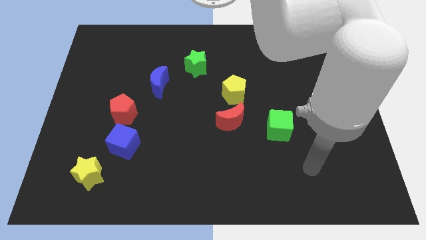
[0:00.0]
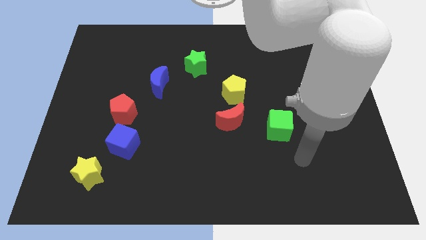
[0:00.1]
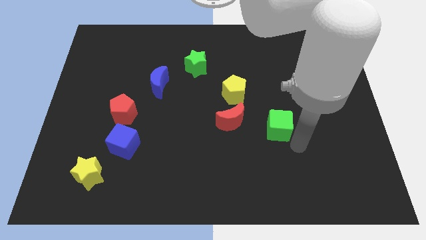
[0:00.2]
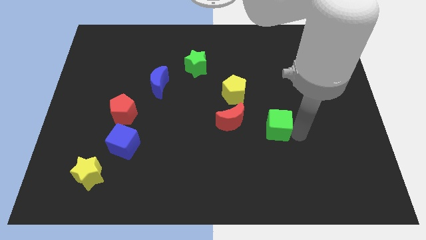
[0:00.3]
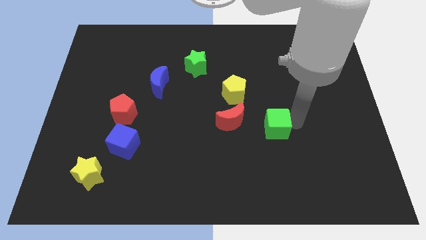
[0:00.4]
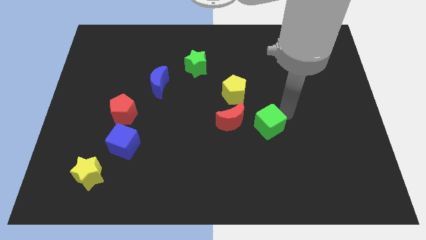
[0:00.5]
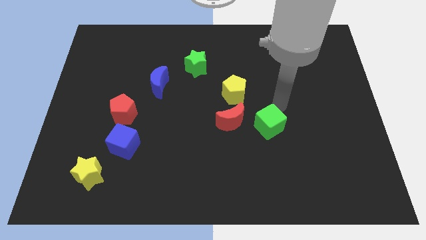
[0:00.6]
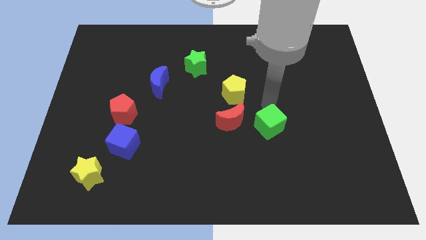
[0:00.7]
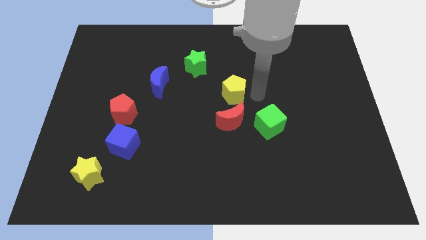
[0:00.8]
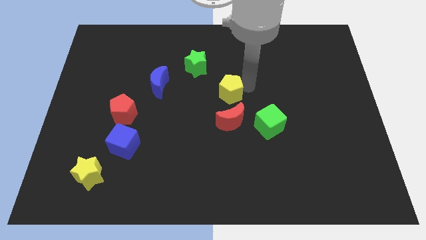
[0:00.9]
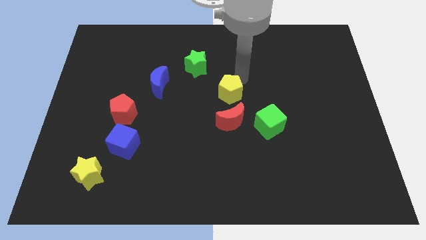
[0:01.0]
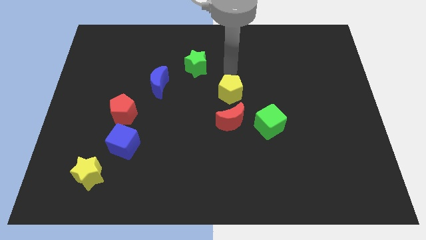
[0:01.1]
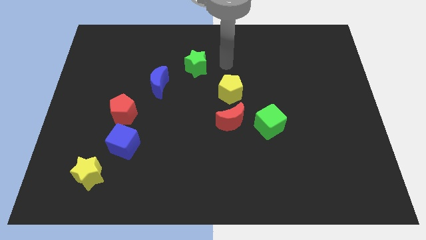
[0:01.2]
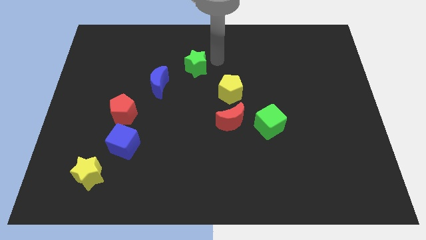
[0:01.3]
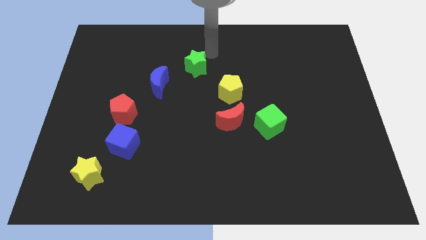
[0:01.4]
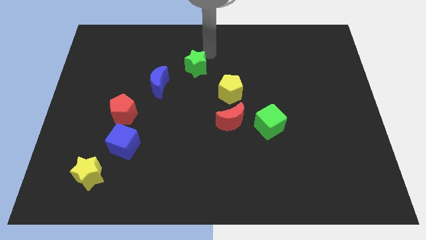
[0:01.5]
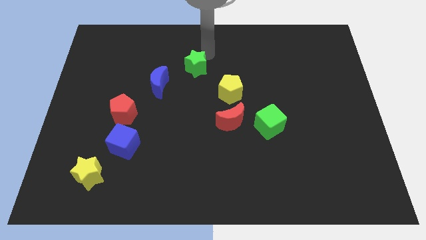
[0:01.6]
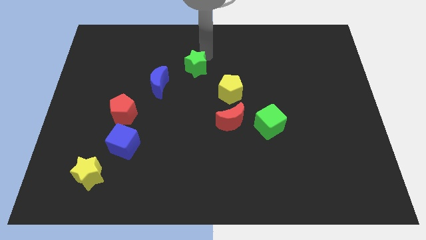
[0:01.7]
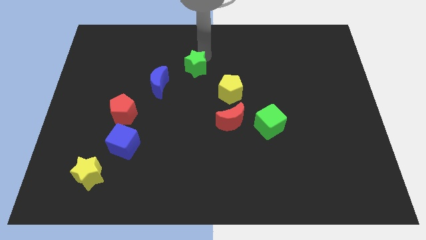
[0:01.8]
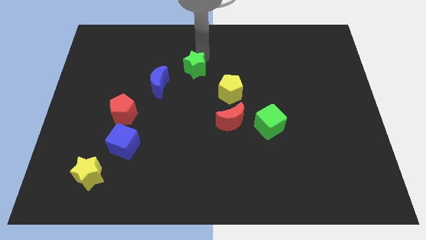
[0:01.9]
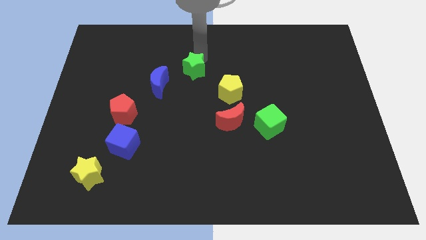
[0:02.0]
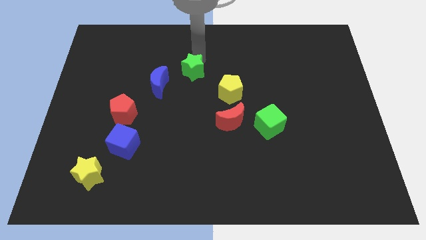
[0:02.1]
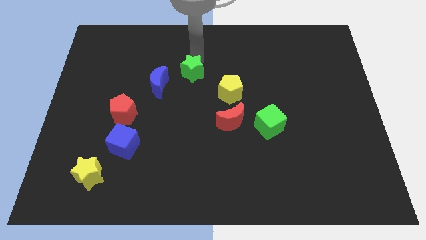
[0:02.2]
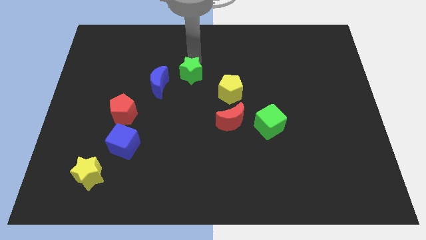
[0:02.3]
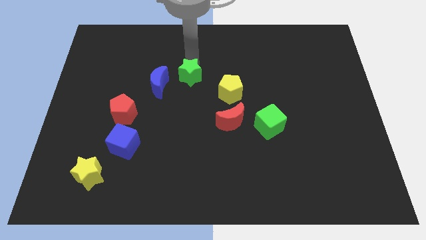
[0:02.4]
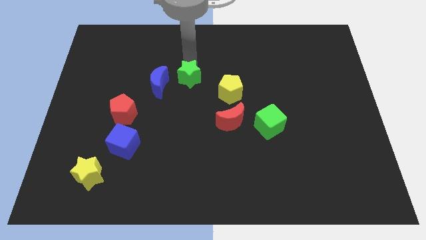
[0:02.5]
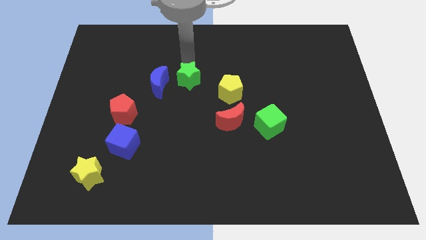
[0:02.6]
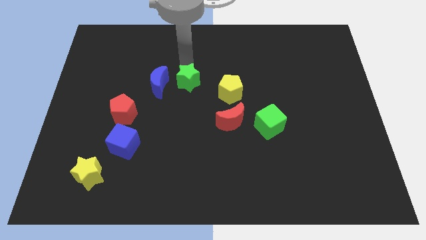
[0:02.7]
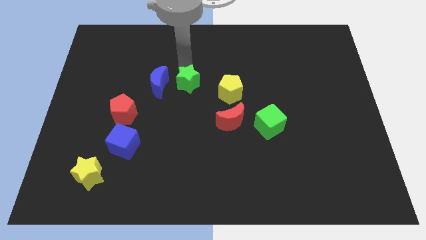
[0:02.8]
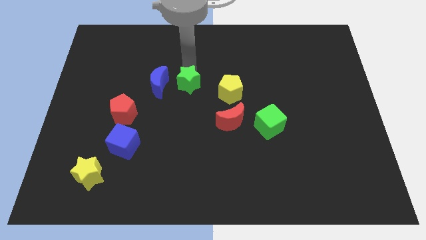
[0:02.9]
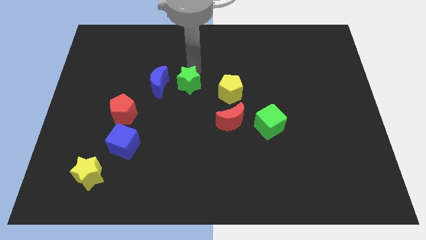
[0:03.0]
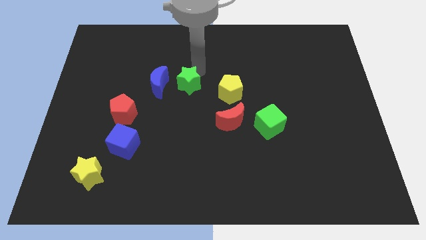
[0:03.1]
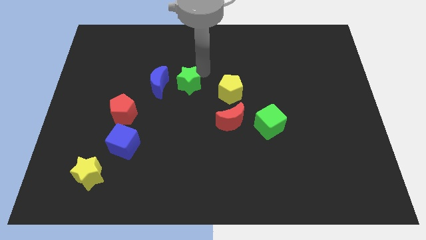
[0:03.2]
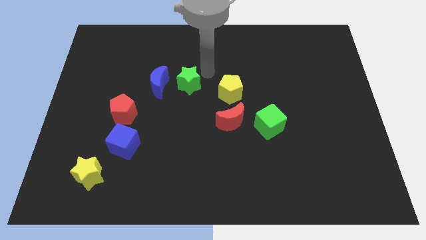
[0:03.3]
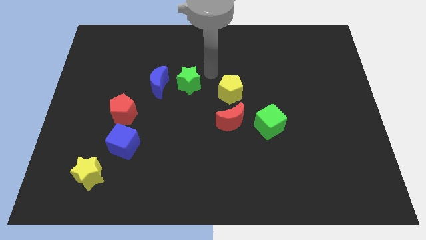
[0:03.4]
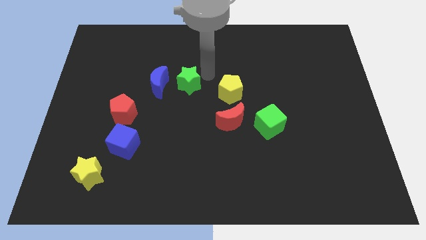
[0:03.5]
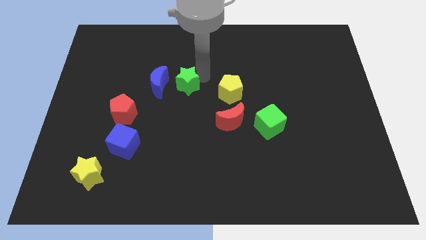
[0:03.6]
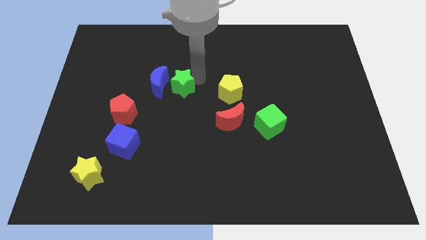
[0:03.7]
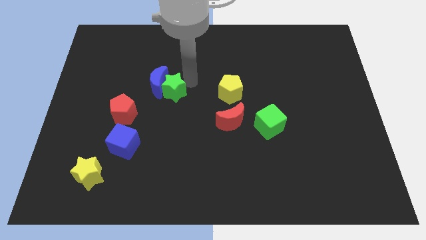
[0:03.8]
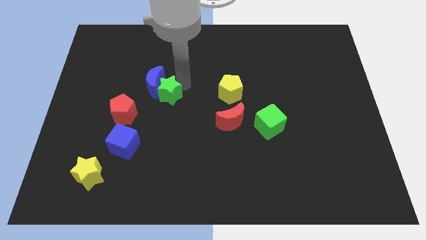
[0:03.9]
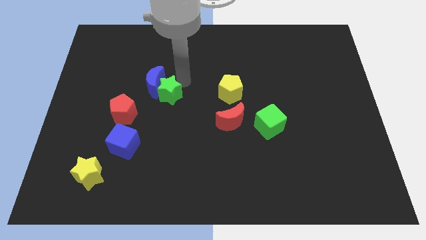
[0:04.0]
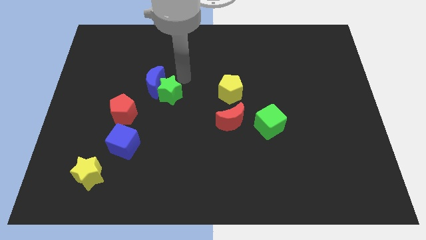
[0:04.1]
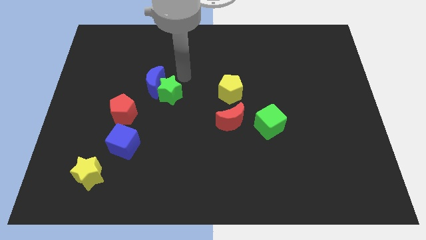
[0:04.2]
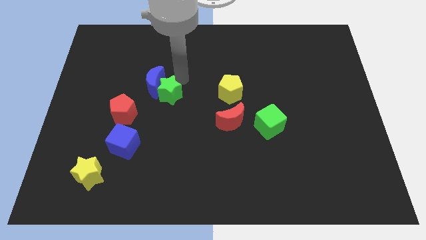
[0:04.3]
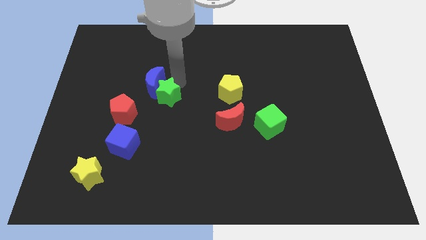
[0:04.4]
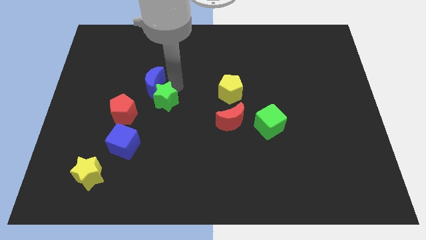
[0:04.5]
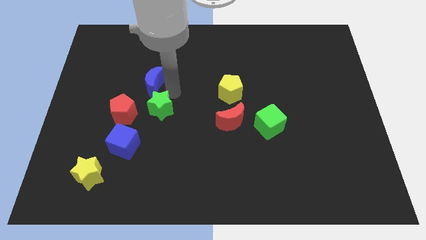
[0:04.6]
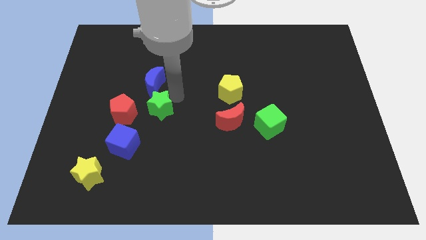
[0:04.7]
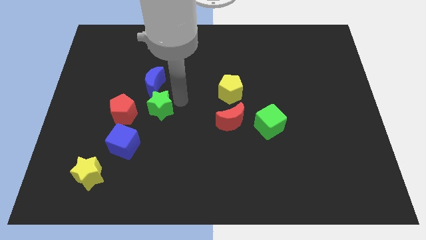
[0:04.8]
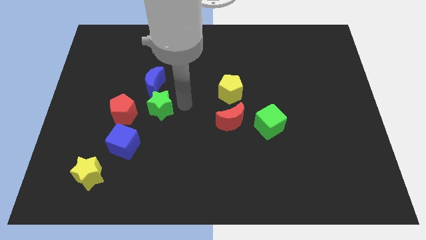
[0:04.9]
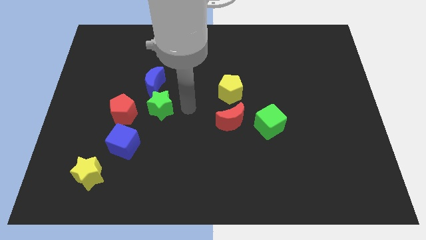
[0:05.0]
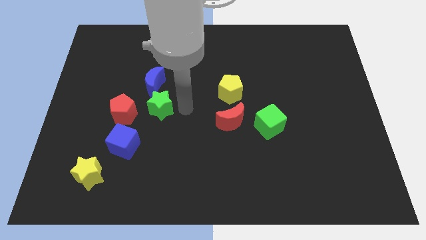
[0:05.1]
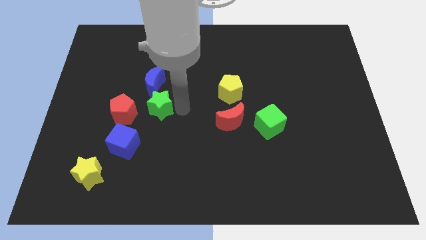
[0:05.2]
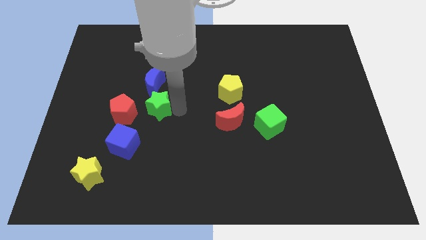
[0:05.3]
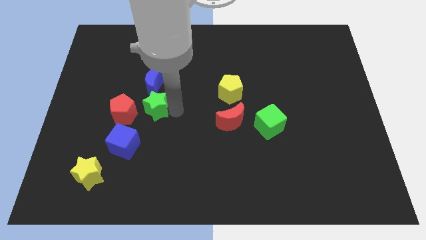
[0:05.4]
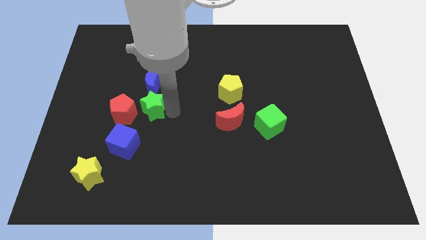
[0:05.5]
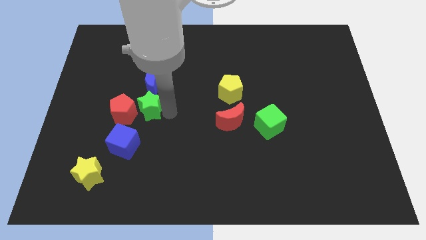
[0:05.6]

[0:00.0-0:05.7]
move the green star to the top side of the blue cube

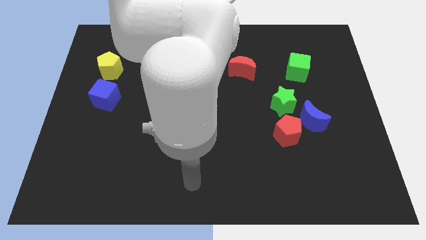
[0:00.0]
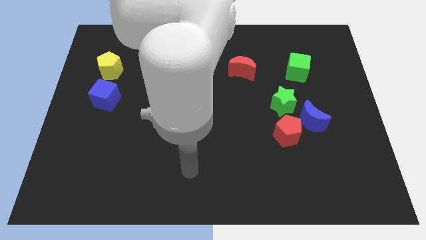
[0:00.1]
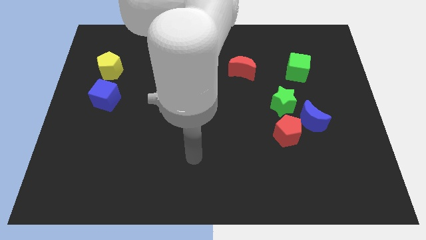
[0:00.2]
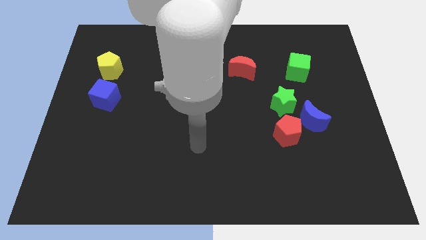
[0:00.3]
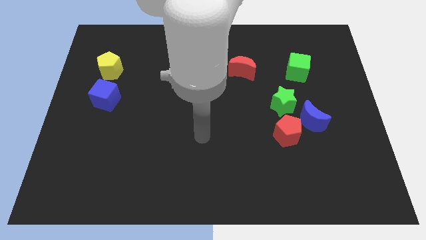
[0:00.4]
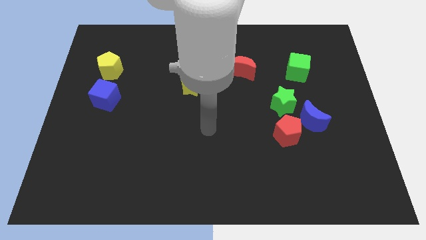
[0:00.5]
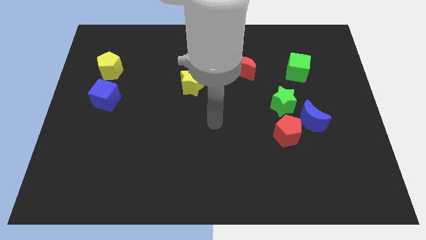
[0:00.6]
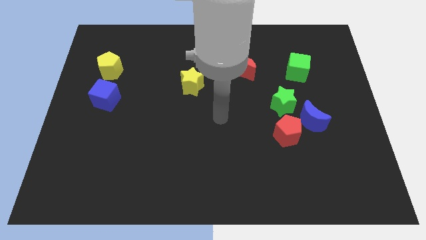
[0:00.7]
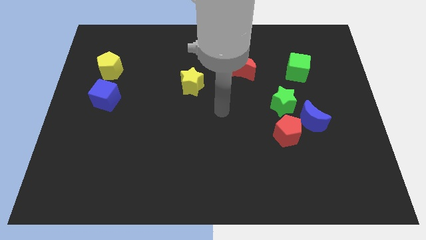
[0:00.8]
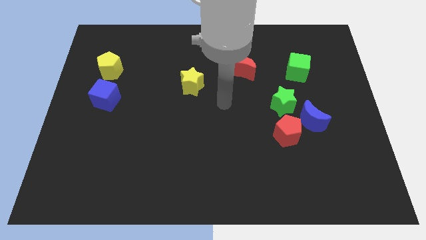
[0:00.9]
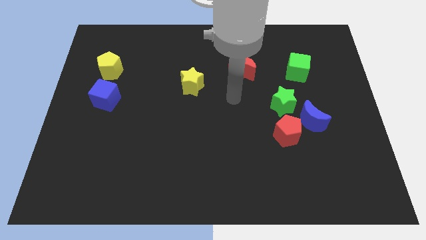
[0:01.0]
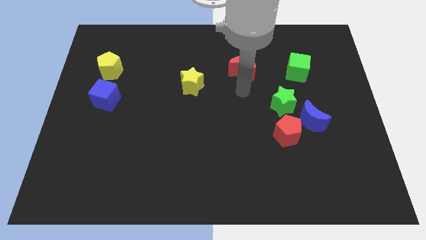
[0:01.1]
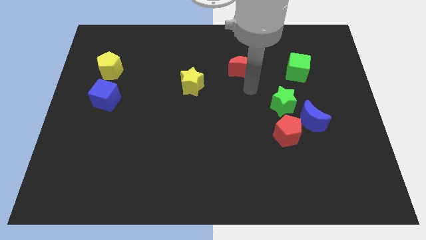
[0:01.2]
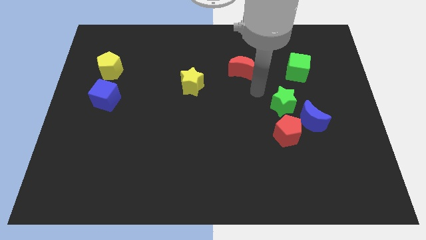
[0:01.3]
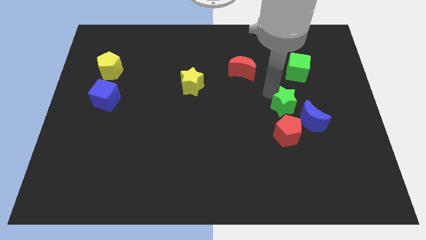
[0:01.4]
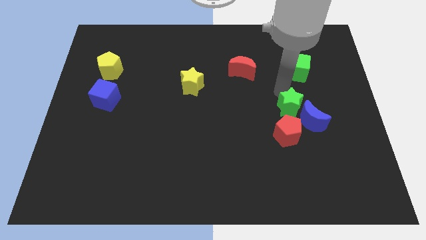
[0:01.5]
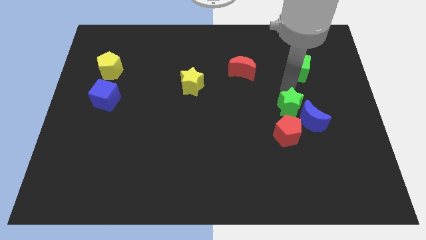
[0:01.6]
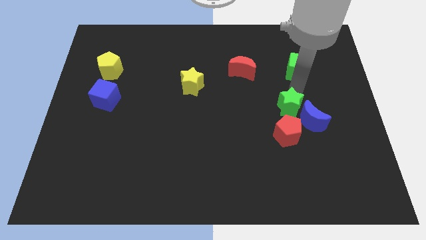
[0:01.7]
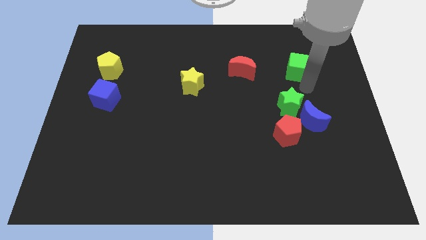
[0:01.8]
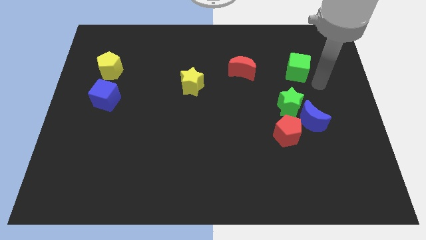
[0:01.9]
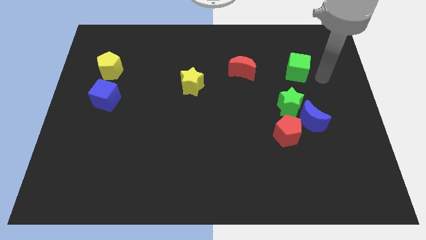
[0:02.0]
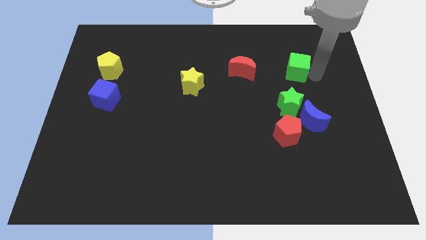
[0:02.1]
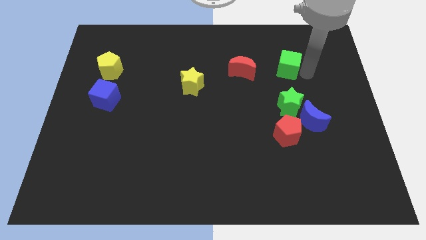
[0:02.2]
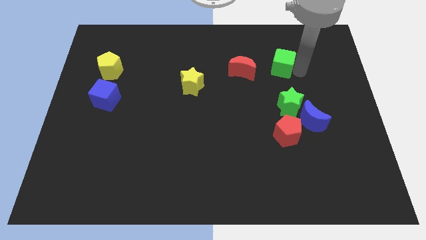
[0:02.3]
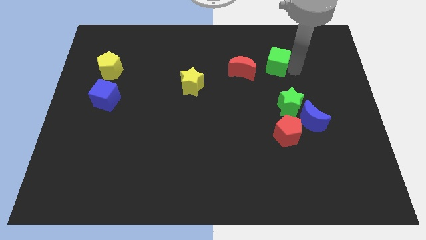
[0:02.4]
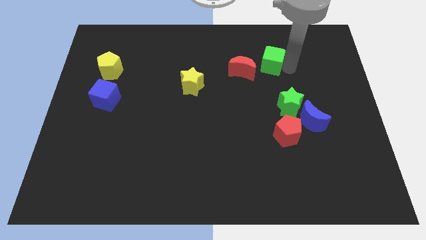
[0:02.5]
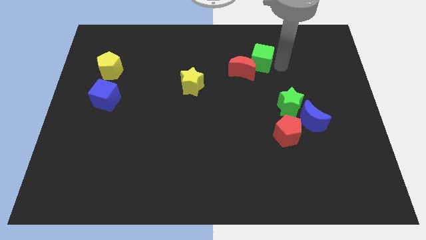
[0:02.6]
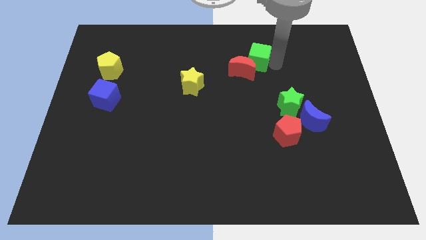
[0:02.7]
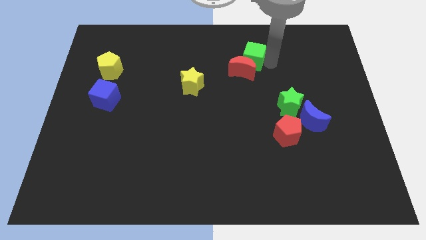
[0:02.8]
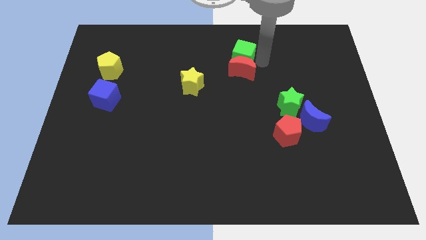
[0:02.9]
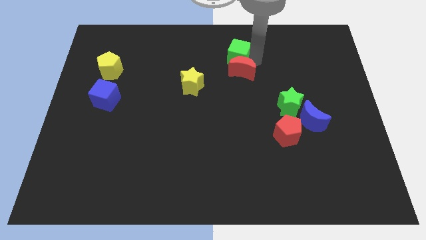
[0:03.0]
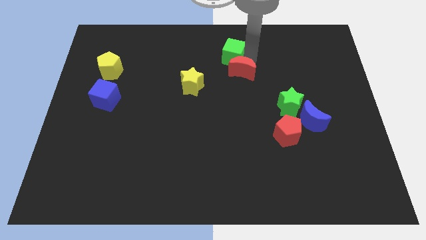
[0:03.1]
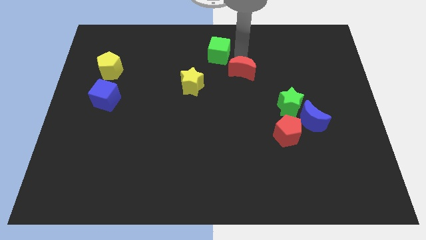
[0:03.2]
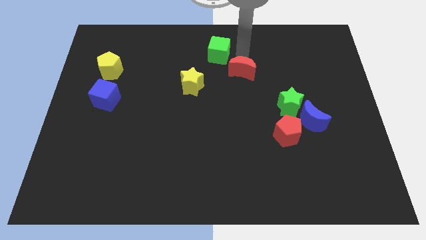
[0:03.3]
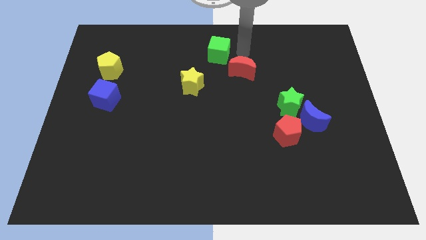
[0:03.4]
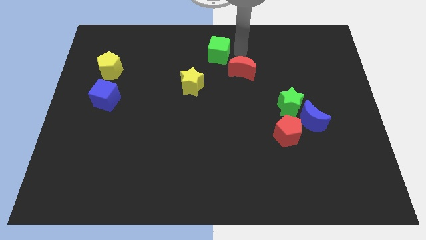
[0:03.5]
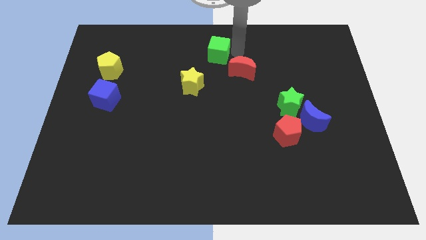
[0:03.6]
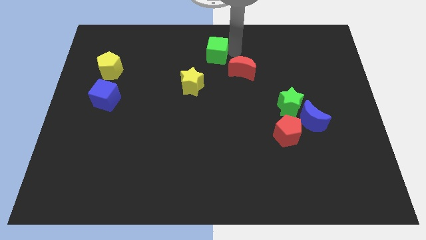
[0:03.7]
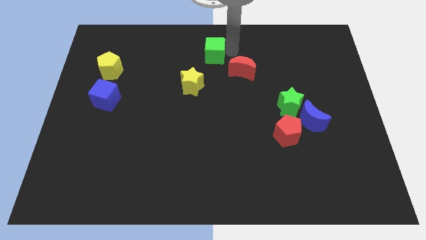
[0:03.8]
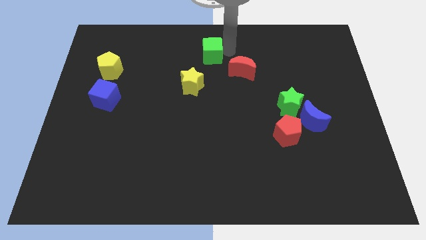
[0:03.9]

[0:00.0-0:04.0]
move the green cube to the top side of the yellow star
